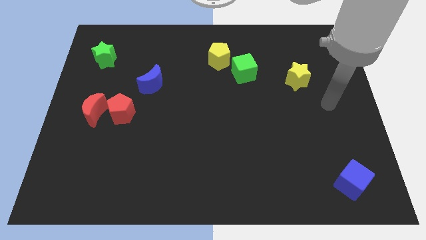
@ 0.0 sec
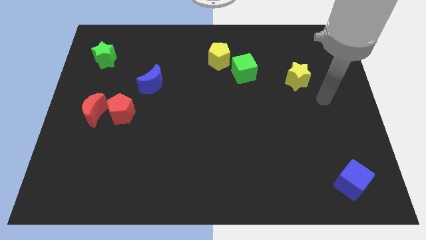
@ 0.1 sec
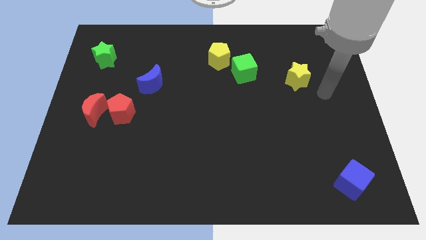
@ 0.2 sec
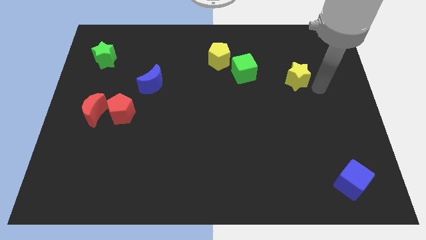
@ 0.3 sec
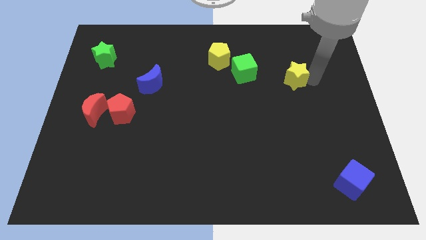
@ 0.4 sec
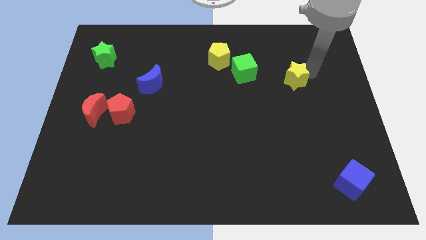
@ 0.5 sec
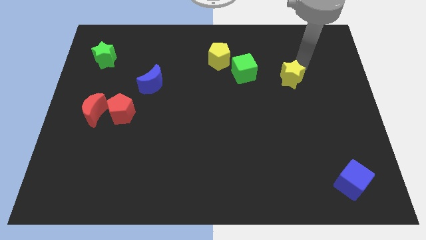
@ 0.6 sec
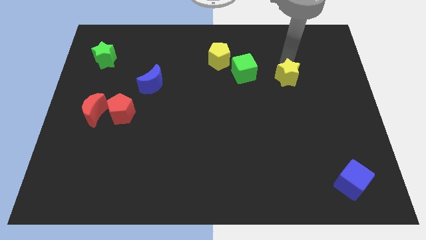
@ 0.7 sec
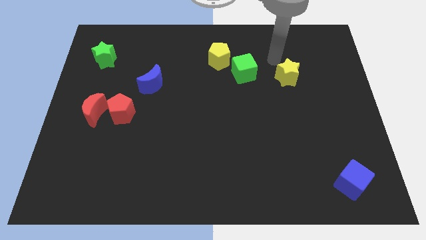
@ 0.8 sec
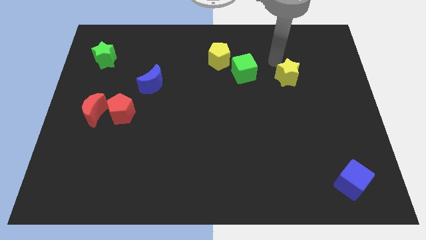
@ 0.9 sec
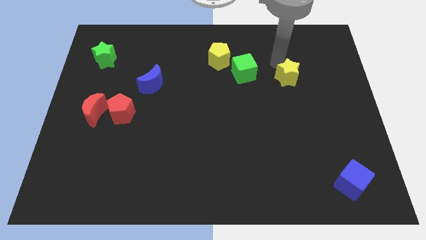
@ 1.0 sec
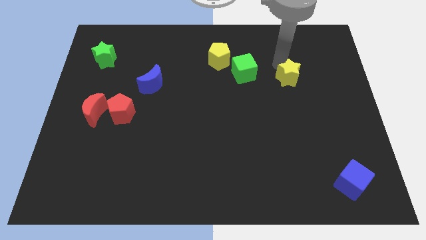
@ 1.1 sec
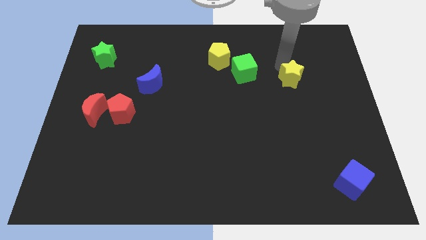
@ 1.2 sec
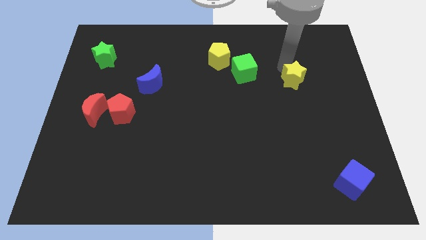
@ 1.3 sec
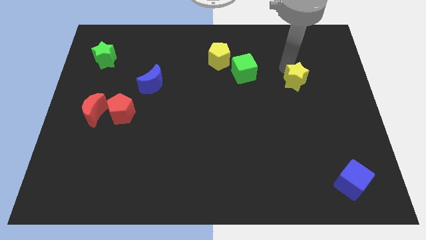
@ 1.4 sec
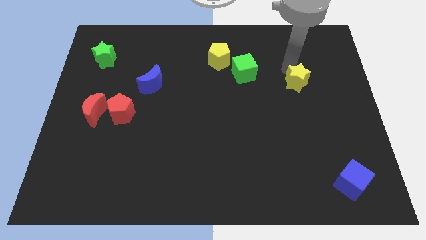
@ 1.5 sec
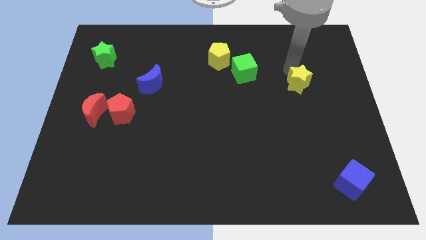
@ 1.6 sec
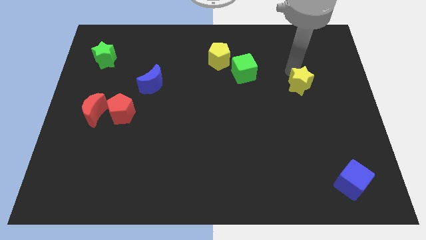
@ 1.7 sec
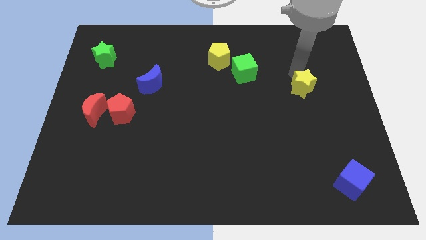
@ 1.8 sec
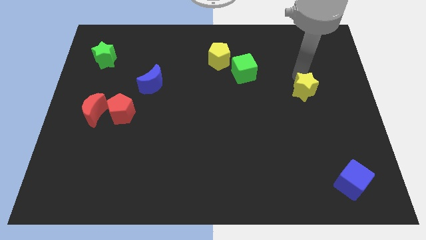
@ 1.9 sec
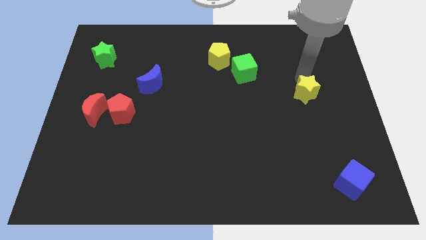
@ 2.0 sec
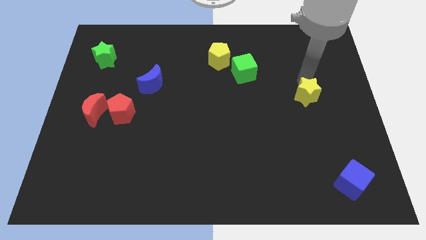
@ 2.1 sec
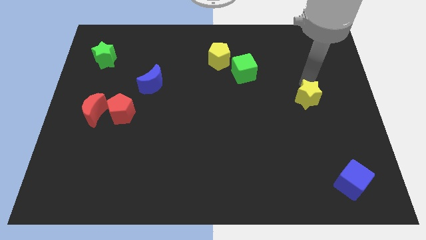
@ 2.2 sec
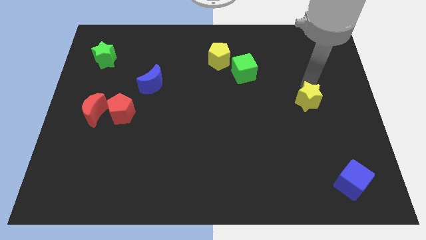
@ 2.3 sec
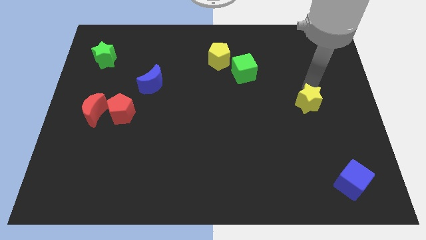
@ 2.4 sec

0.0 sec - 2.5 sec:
push the yellow star a bit downwards

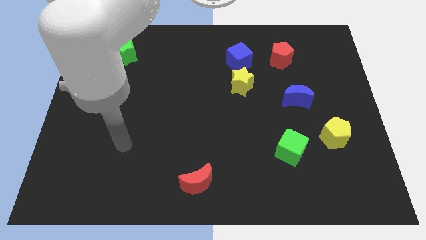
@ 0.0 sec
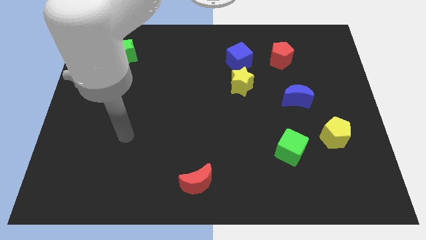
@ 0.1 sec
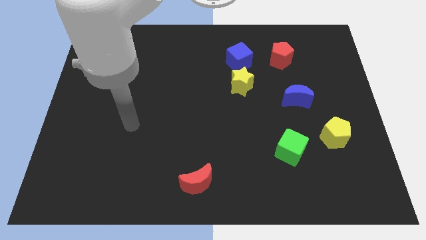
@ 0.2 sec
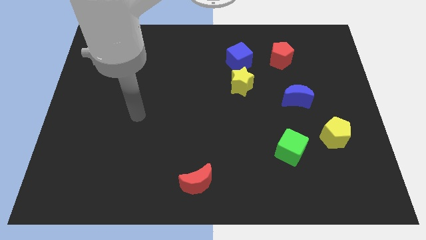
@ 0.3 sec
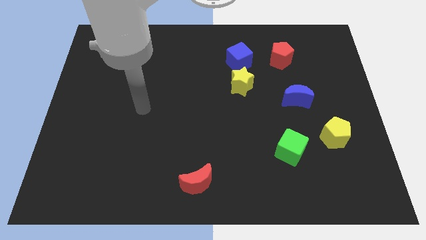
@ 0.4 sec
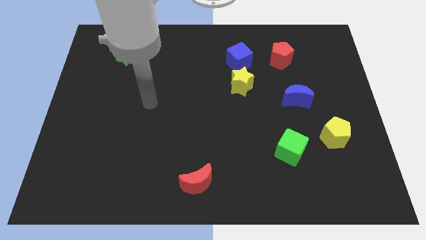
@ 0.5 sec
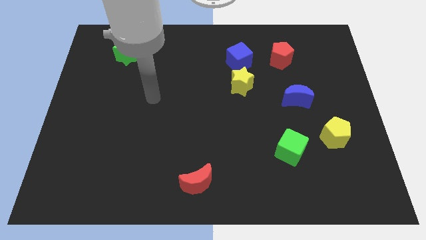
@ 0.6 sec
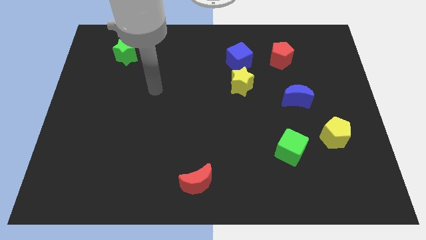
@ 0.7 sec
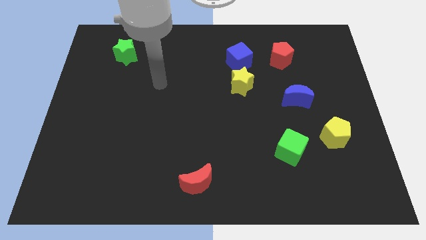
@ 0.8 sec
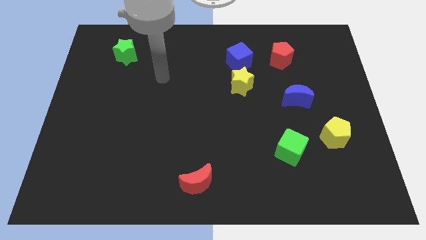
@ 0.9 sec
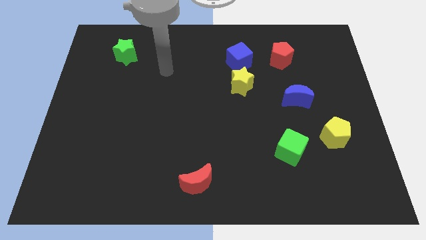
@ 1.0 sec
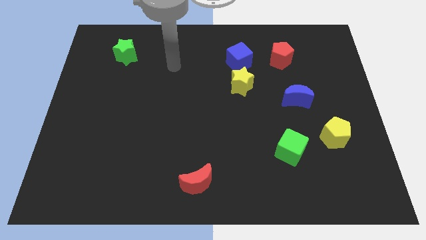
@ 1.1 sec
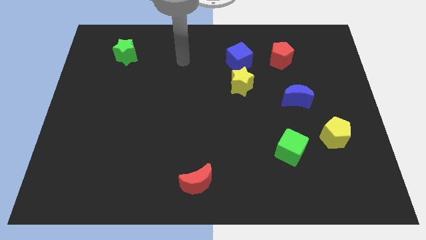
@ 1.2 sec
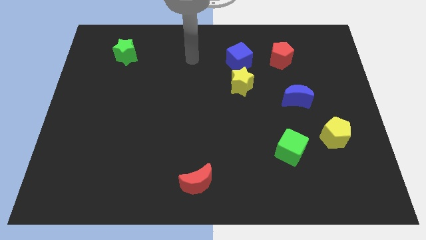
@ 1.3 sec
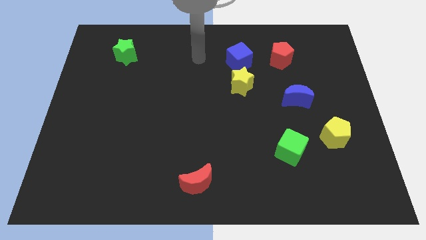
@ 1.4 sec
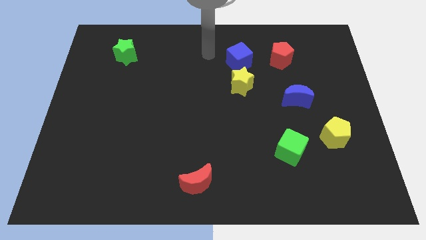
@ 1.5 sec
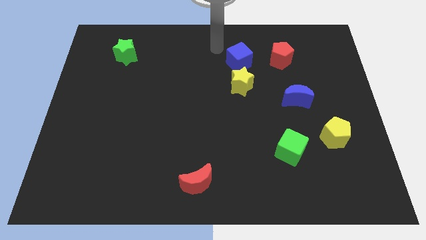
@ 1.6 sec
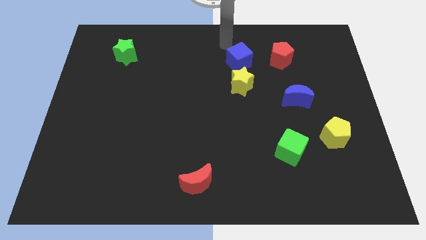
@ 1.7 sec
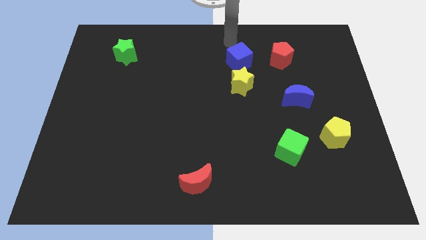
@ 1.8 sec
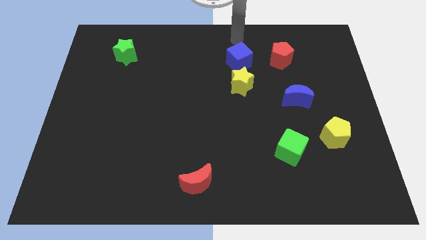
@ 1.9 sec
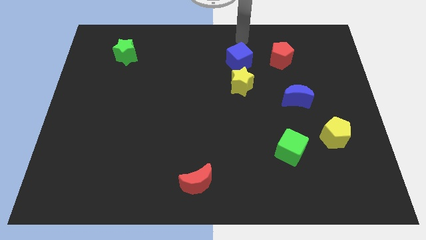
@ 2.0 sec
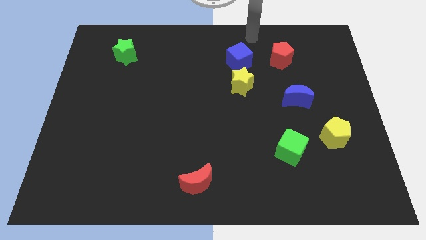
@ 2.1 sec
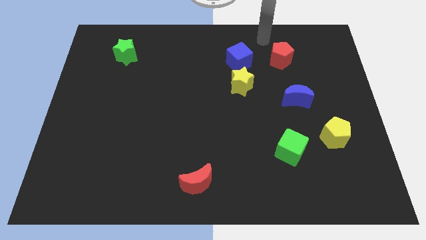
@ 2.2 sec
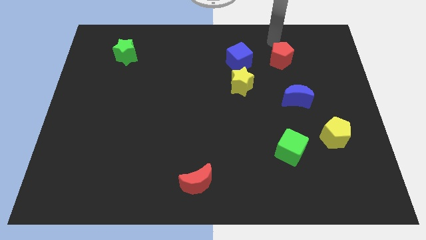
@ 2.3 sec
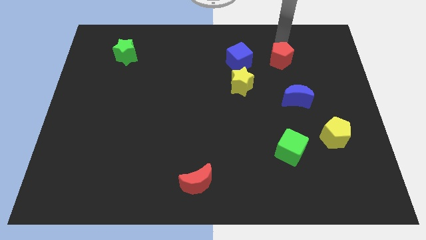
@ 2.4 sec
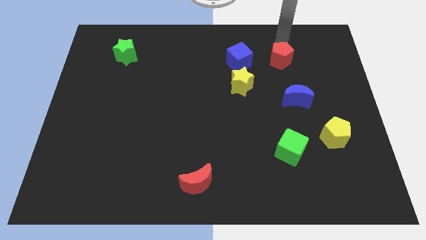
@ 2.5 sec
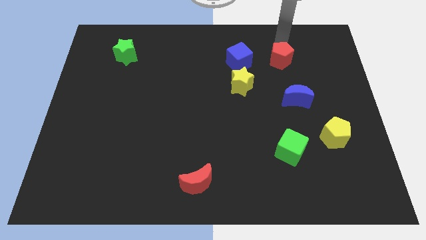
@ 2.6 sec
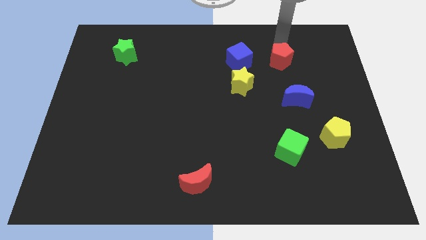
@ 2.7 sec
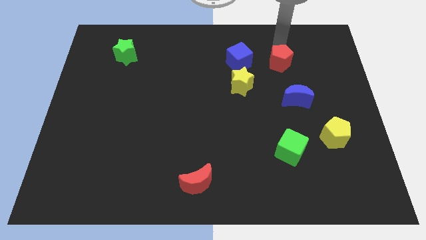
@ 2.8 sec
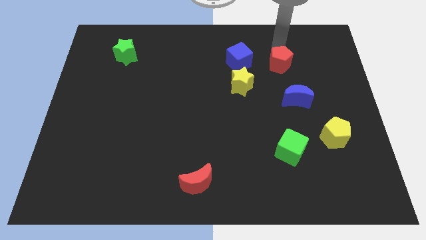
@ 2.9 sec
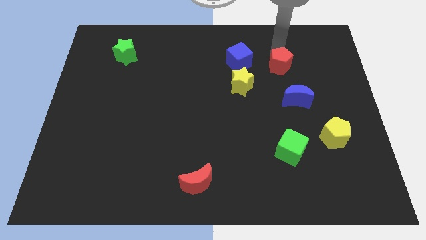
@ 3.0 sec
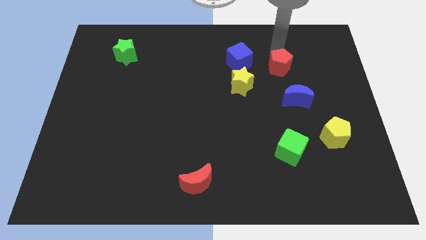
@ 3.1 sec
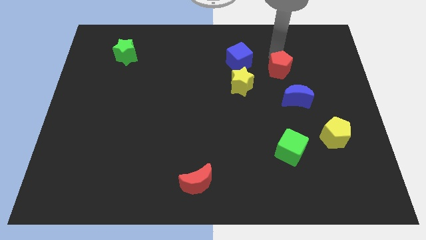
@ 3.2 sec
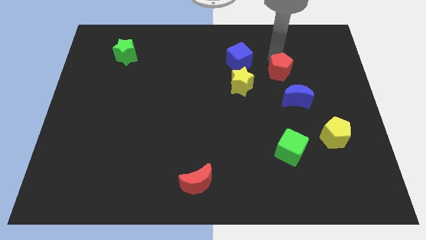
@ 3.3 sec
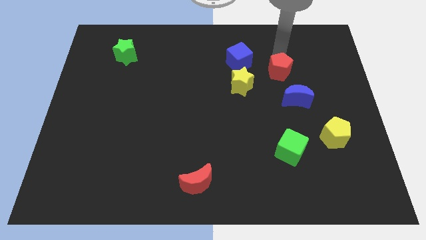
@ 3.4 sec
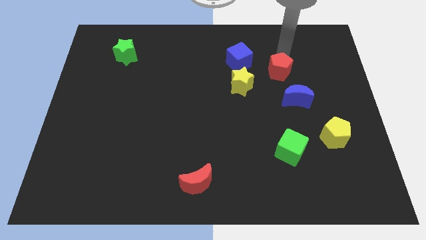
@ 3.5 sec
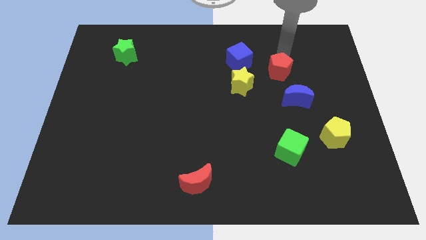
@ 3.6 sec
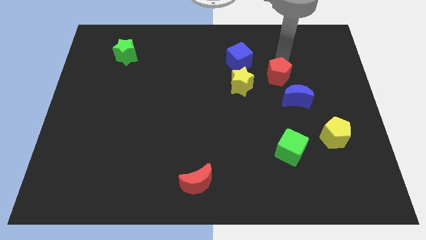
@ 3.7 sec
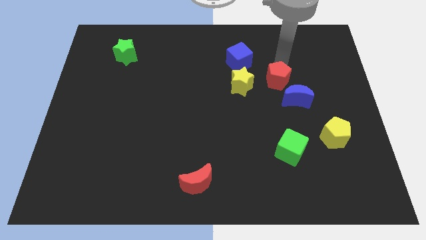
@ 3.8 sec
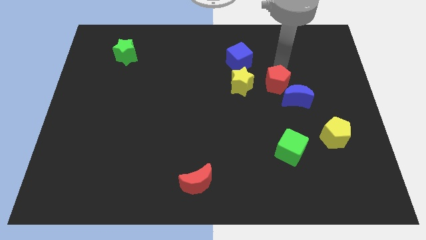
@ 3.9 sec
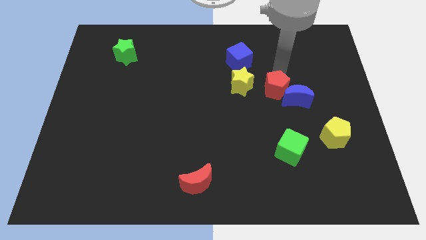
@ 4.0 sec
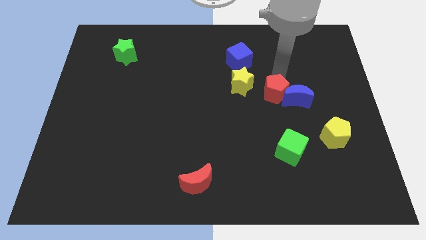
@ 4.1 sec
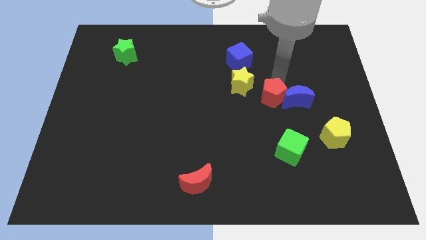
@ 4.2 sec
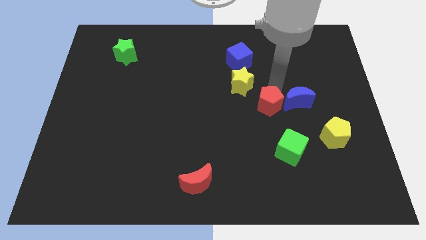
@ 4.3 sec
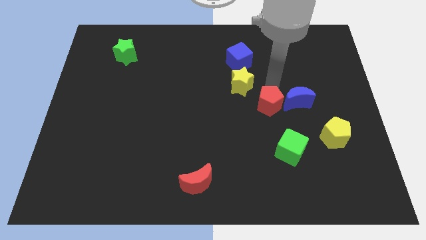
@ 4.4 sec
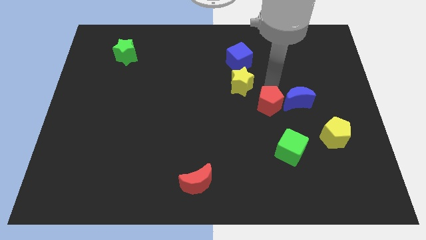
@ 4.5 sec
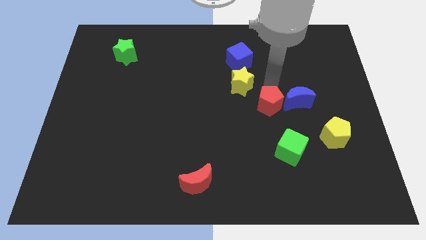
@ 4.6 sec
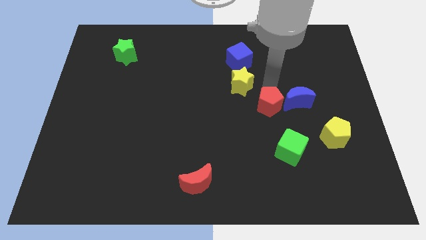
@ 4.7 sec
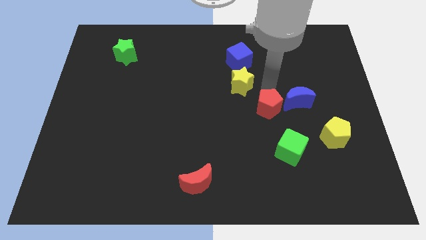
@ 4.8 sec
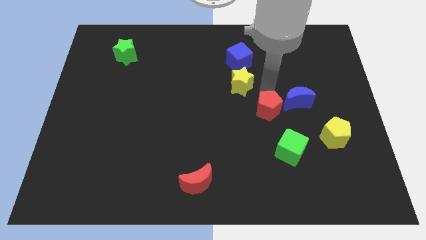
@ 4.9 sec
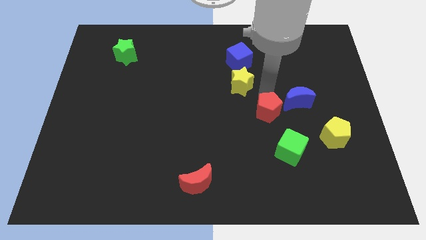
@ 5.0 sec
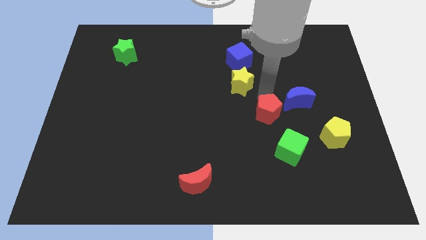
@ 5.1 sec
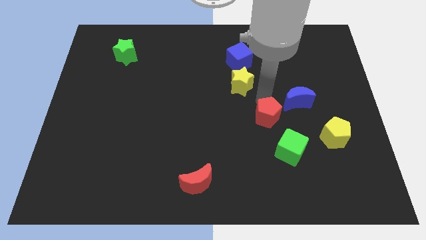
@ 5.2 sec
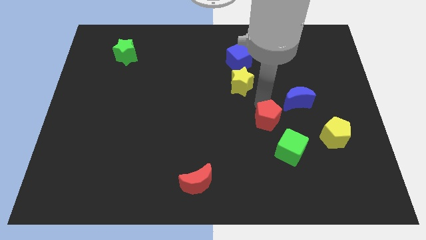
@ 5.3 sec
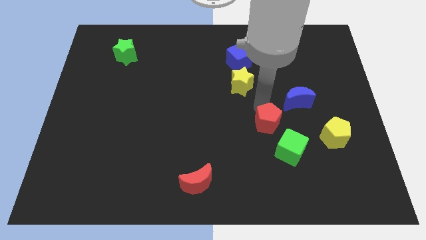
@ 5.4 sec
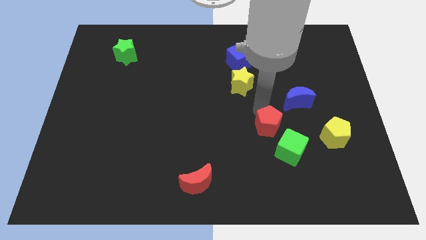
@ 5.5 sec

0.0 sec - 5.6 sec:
move the red pentagon downwards
